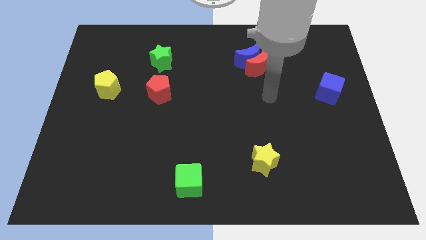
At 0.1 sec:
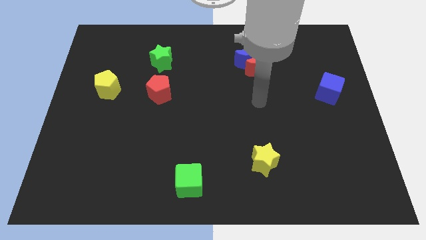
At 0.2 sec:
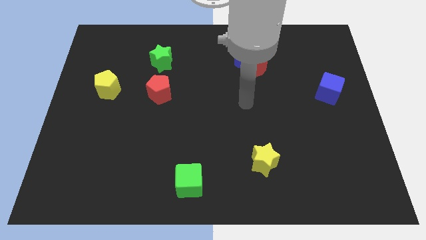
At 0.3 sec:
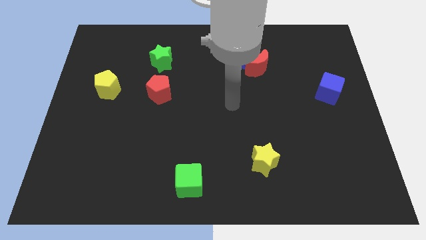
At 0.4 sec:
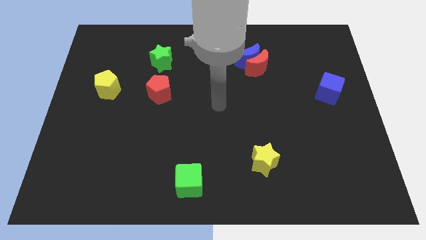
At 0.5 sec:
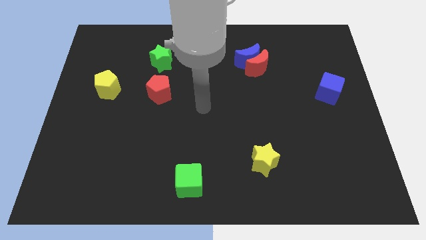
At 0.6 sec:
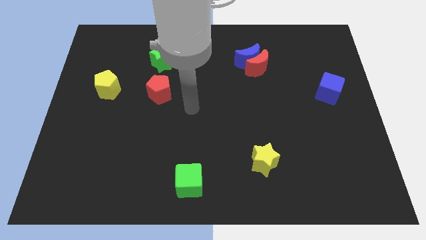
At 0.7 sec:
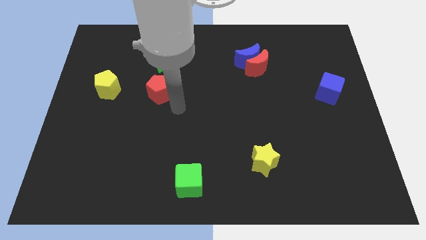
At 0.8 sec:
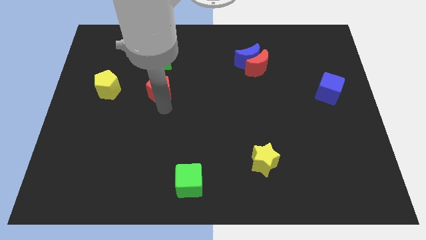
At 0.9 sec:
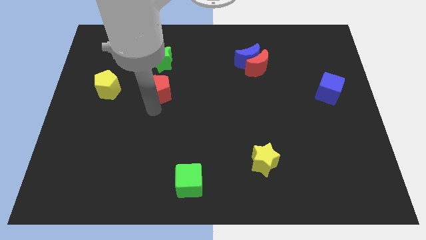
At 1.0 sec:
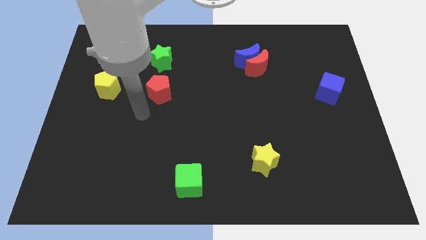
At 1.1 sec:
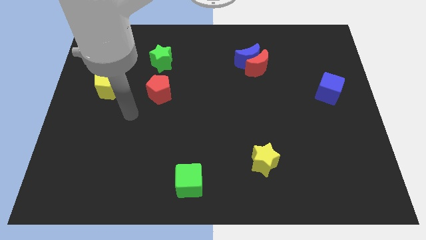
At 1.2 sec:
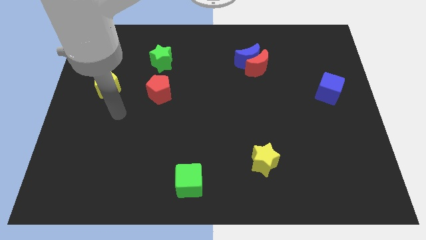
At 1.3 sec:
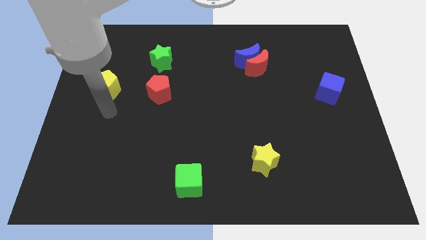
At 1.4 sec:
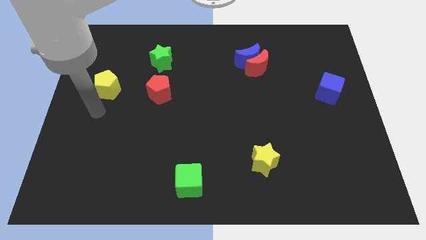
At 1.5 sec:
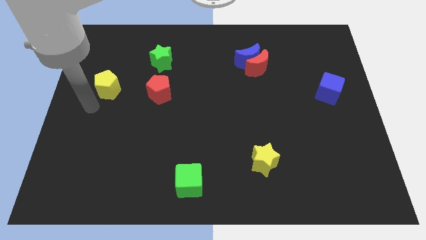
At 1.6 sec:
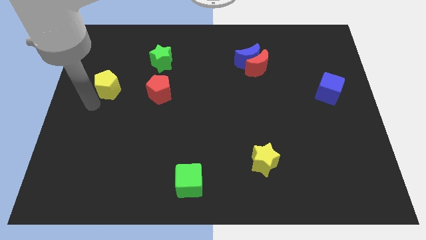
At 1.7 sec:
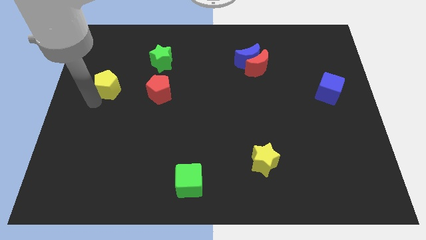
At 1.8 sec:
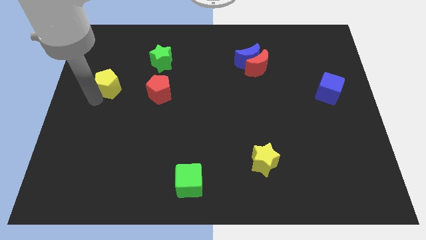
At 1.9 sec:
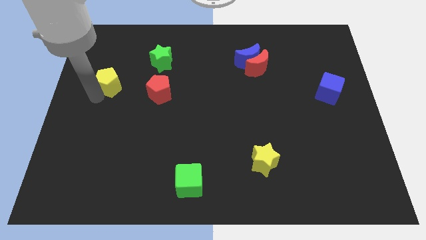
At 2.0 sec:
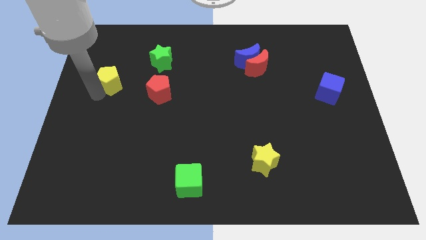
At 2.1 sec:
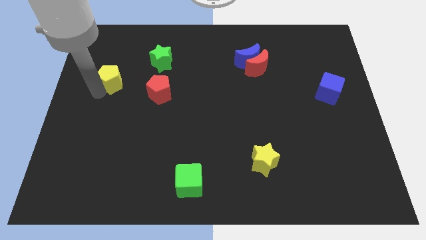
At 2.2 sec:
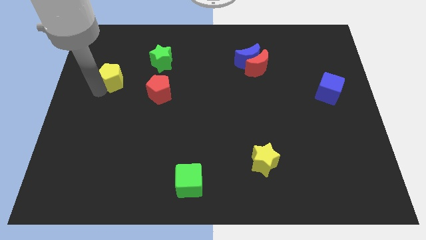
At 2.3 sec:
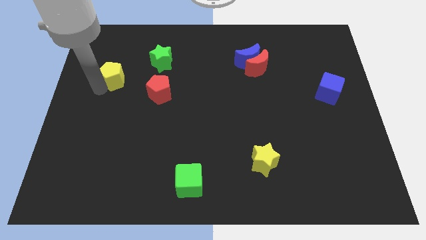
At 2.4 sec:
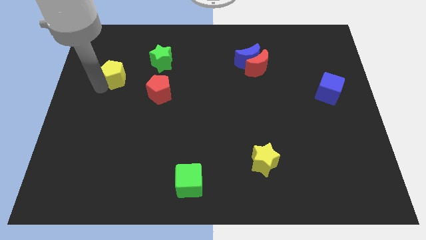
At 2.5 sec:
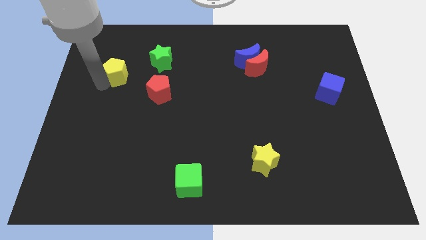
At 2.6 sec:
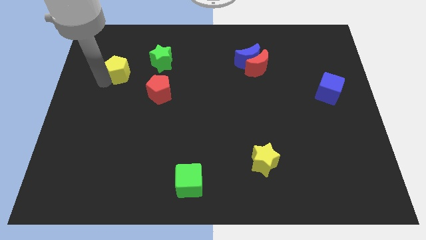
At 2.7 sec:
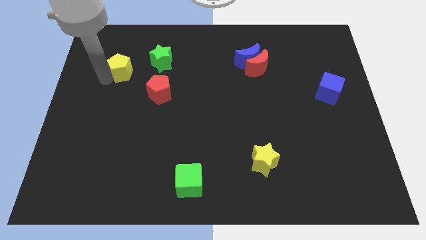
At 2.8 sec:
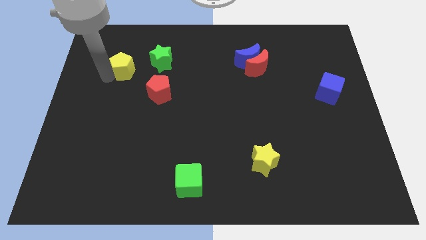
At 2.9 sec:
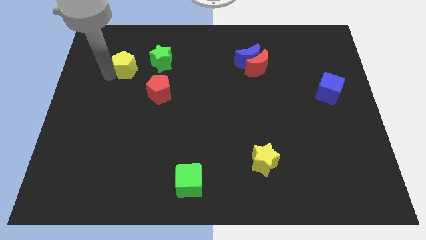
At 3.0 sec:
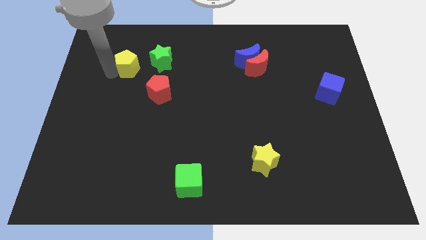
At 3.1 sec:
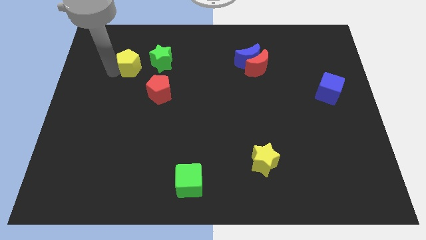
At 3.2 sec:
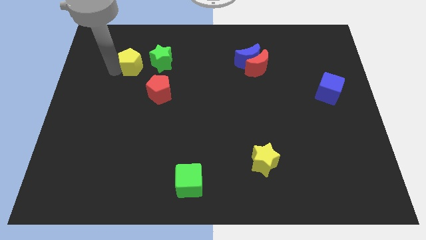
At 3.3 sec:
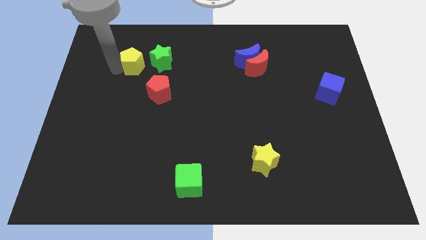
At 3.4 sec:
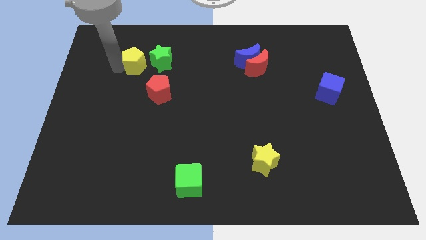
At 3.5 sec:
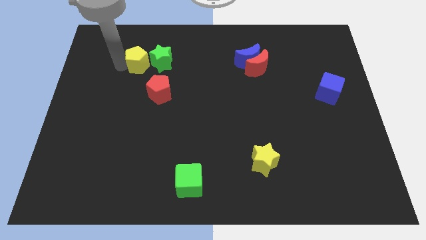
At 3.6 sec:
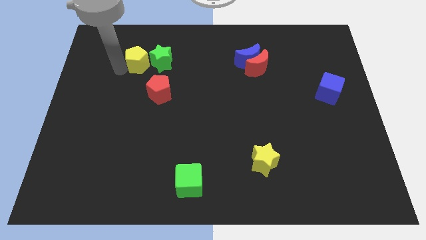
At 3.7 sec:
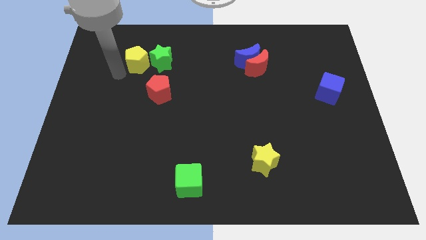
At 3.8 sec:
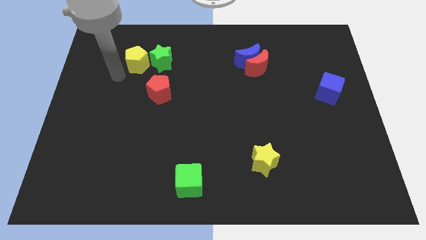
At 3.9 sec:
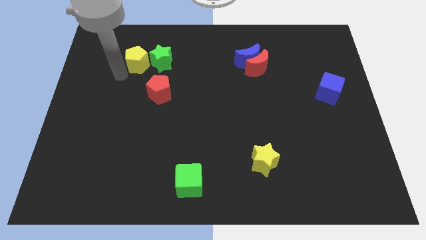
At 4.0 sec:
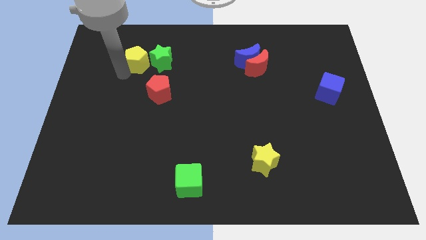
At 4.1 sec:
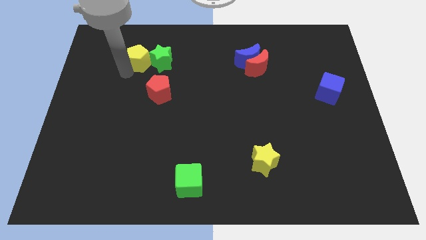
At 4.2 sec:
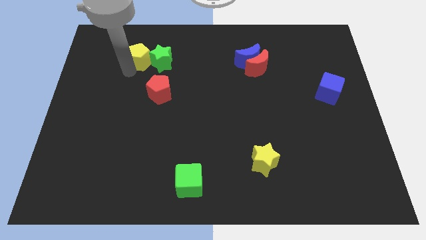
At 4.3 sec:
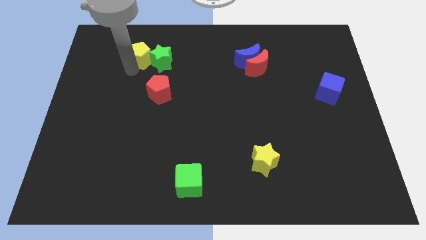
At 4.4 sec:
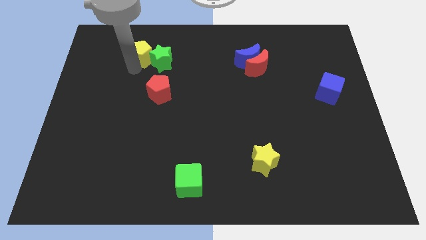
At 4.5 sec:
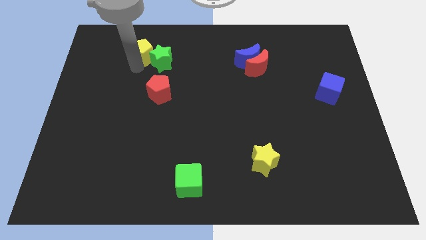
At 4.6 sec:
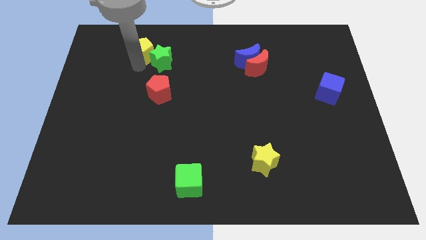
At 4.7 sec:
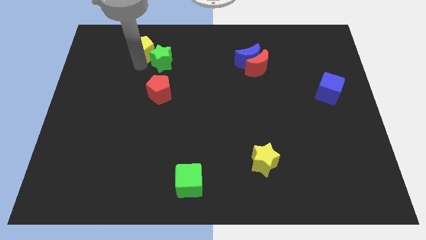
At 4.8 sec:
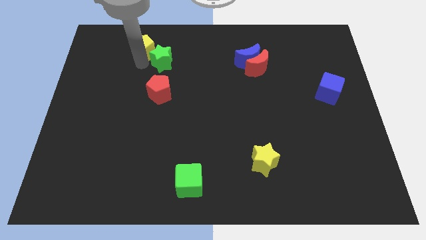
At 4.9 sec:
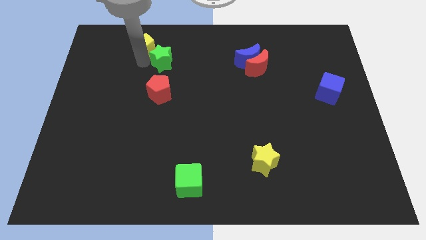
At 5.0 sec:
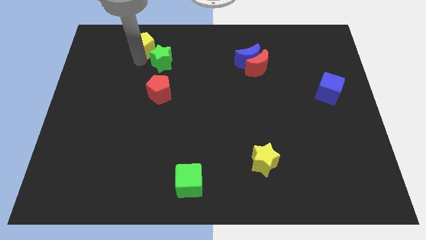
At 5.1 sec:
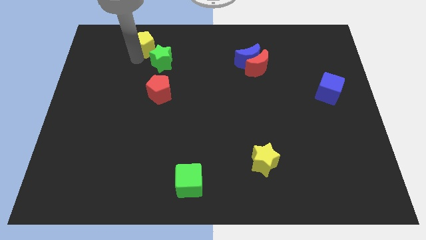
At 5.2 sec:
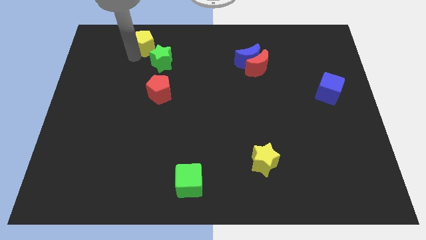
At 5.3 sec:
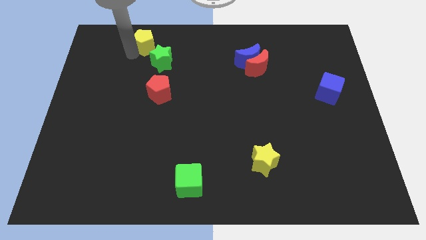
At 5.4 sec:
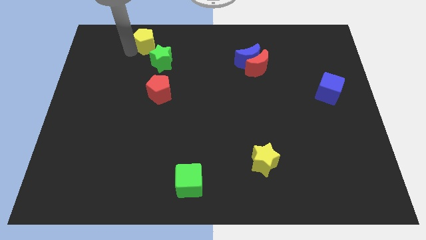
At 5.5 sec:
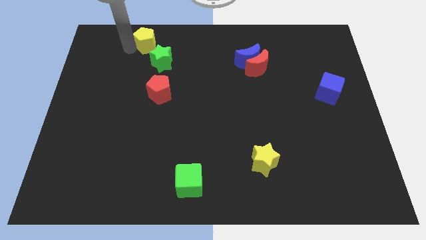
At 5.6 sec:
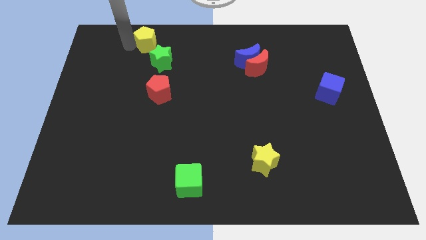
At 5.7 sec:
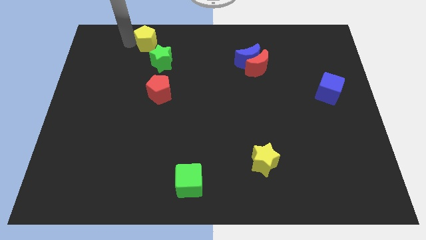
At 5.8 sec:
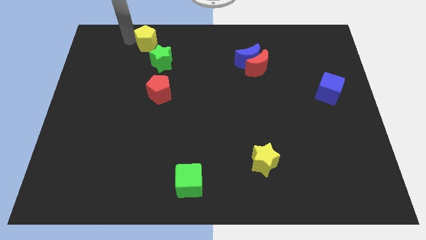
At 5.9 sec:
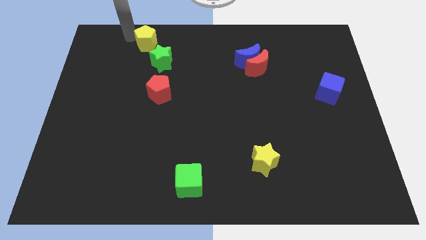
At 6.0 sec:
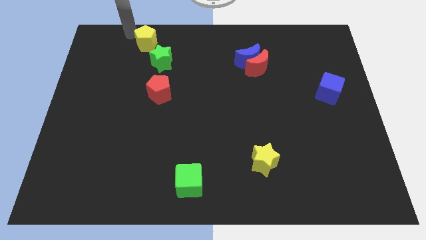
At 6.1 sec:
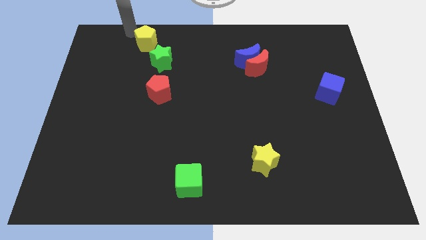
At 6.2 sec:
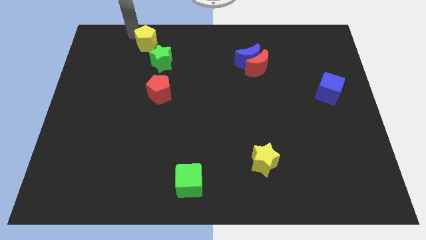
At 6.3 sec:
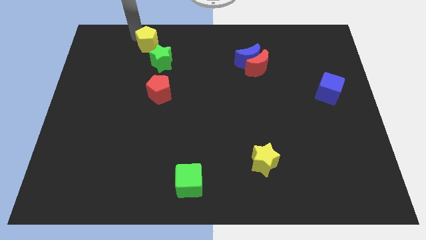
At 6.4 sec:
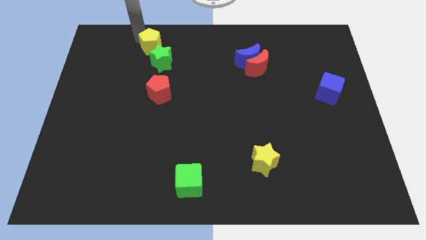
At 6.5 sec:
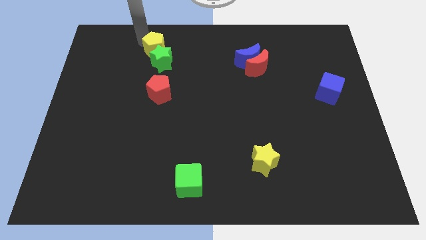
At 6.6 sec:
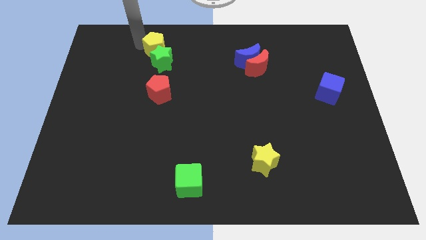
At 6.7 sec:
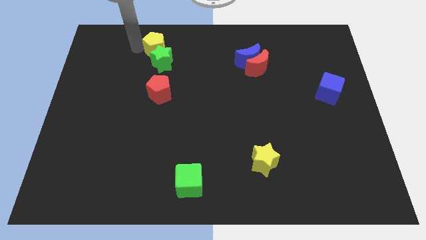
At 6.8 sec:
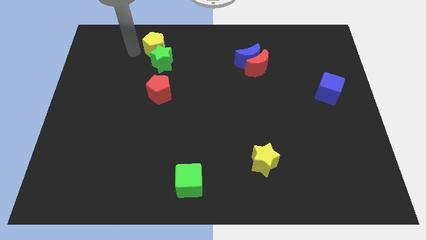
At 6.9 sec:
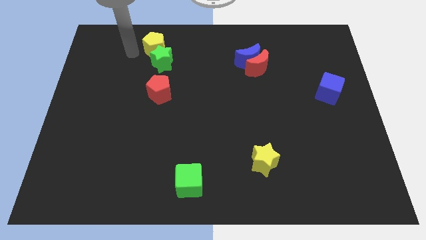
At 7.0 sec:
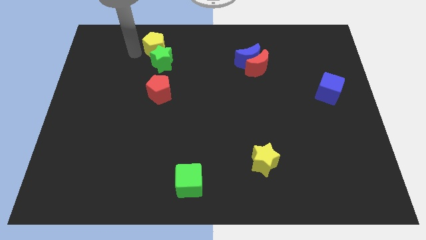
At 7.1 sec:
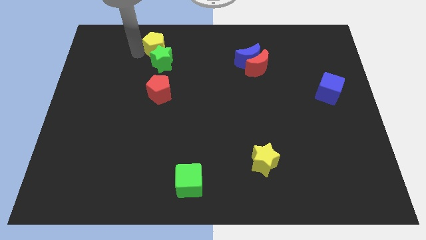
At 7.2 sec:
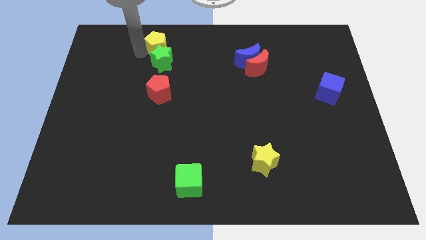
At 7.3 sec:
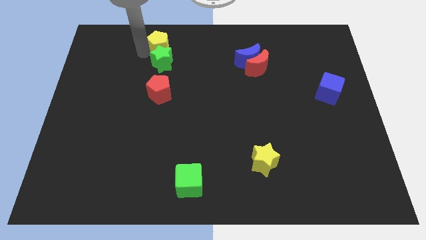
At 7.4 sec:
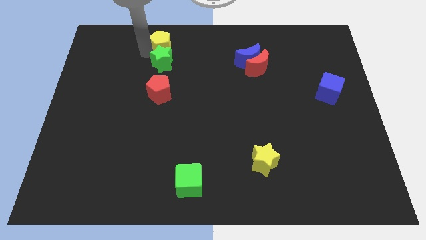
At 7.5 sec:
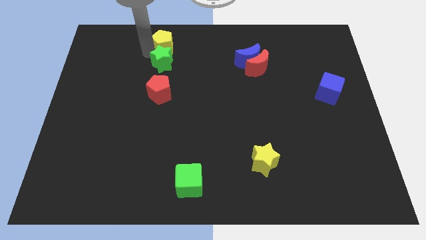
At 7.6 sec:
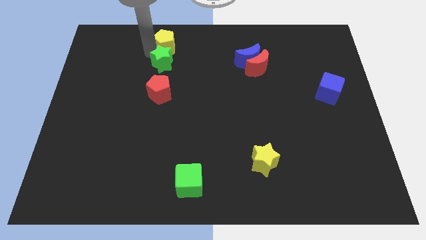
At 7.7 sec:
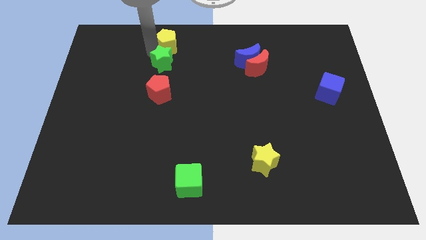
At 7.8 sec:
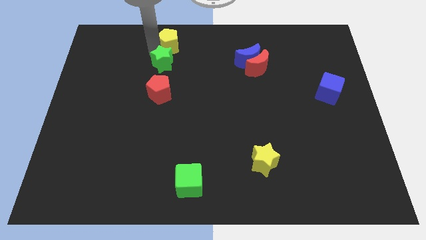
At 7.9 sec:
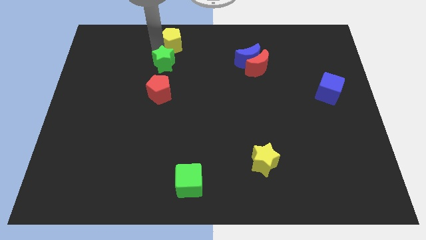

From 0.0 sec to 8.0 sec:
push the yellow pentagon to the towards your base
